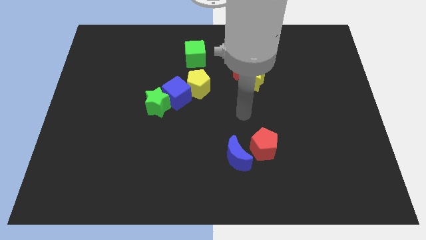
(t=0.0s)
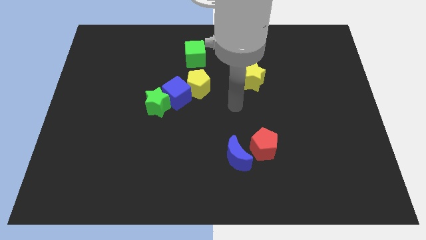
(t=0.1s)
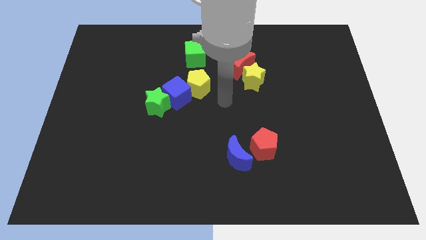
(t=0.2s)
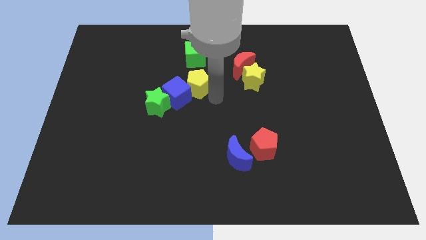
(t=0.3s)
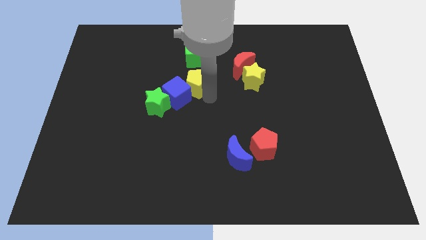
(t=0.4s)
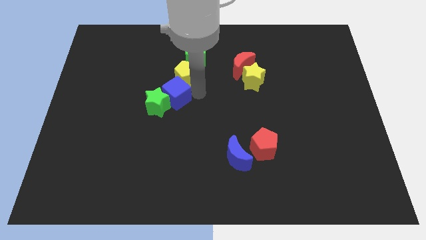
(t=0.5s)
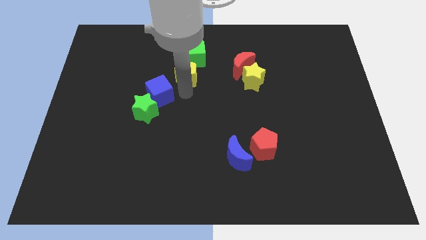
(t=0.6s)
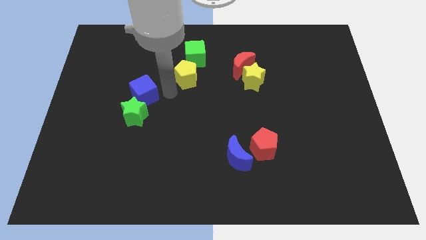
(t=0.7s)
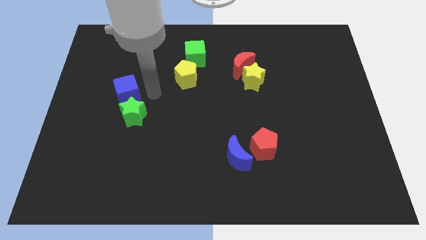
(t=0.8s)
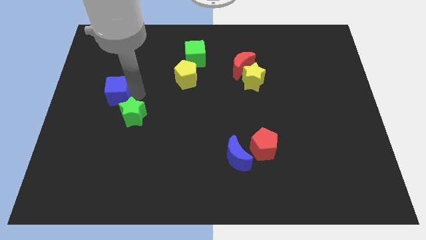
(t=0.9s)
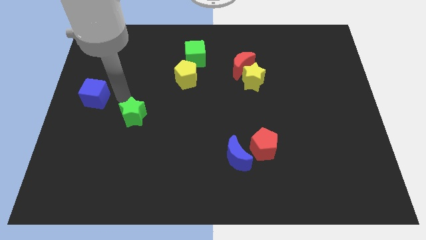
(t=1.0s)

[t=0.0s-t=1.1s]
move the green star away from the blue cube

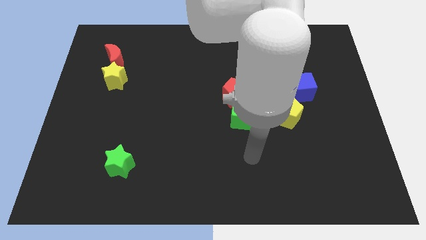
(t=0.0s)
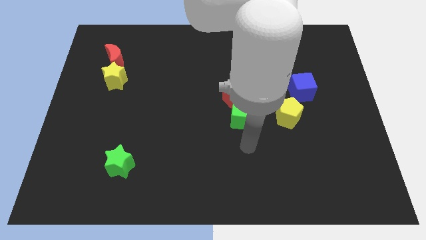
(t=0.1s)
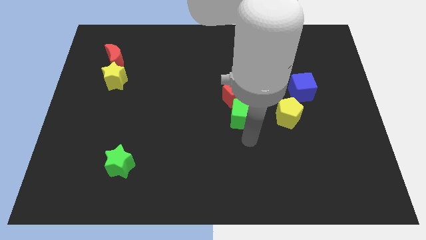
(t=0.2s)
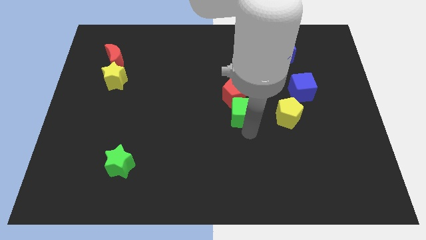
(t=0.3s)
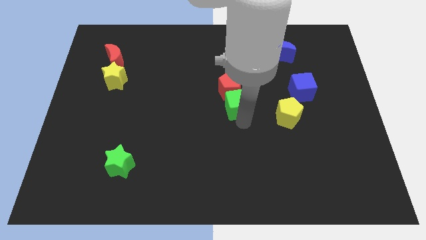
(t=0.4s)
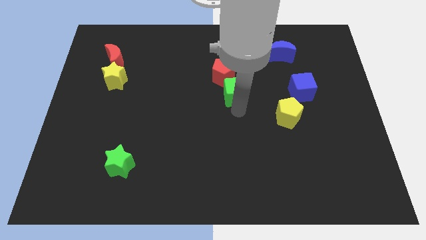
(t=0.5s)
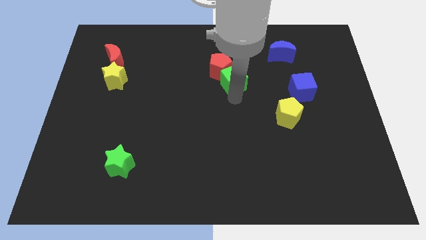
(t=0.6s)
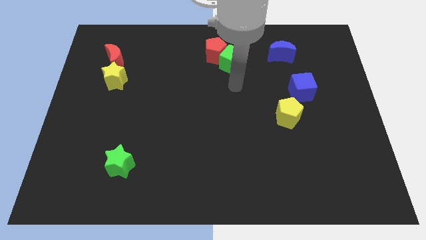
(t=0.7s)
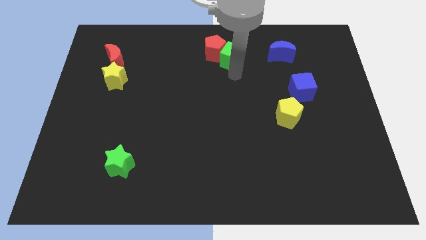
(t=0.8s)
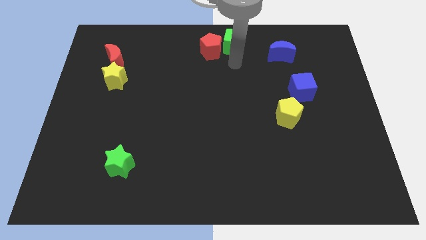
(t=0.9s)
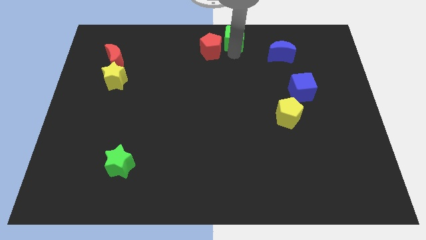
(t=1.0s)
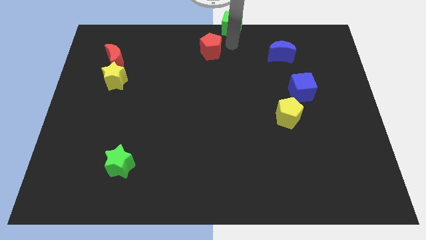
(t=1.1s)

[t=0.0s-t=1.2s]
pull the red pentagon apart from the green cube

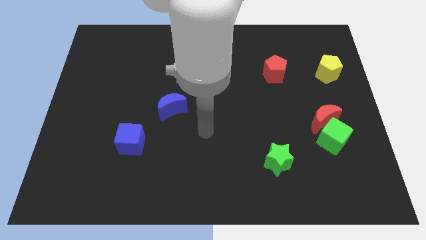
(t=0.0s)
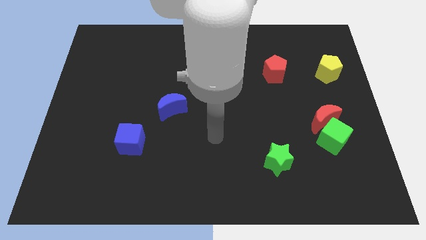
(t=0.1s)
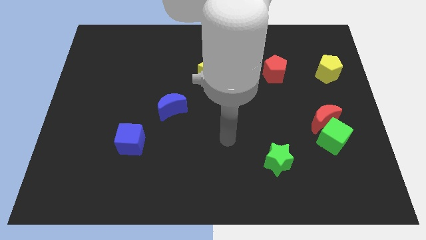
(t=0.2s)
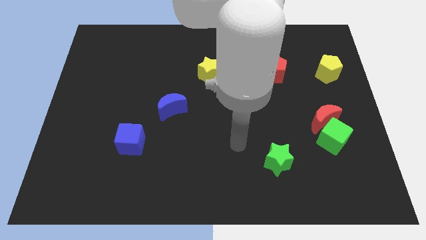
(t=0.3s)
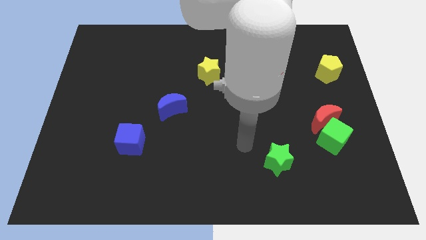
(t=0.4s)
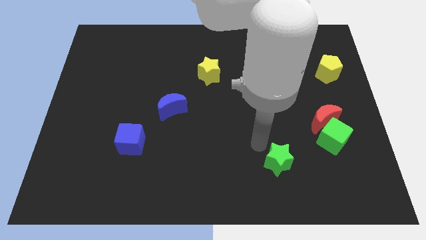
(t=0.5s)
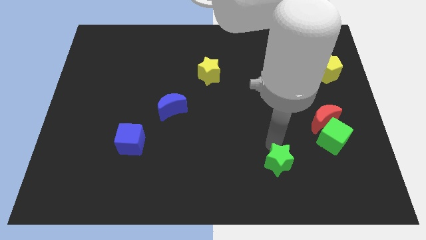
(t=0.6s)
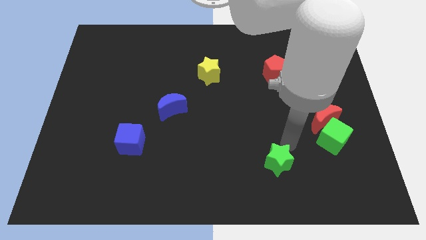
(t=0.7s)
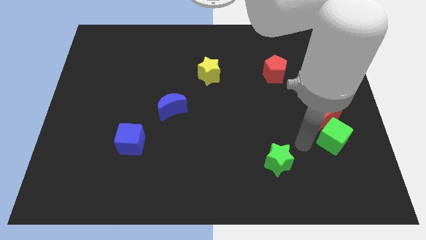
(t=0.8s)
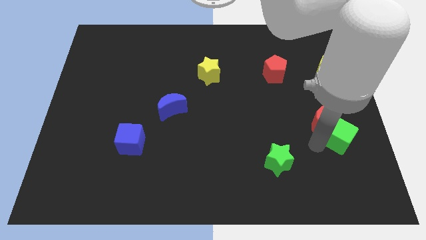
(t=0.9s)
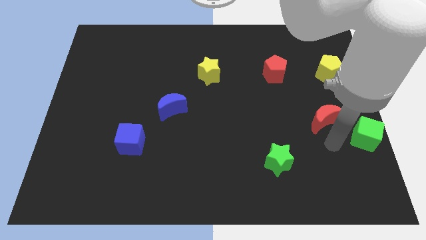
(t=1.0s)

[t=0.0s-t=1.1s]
separate the red moon from the green cube

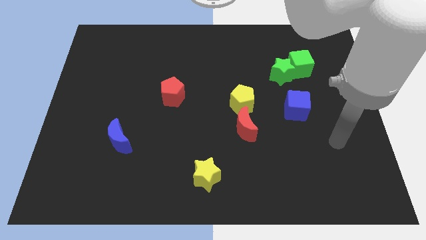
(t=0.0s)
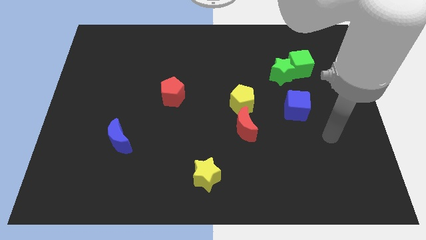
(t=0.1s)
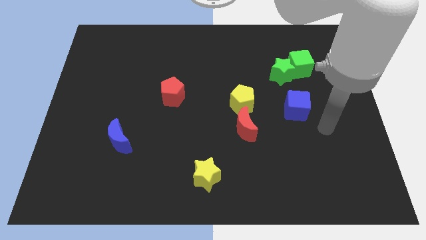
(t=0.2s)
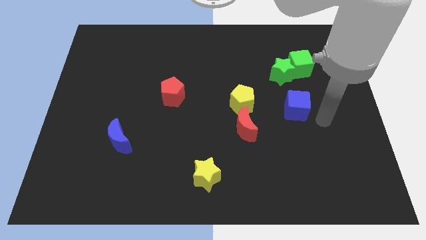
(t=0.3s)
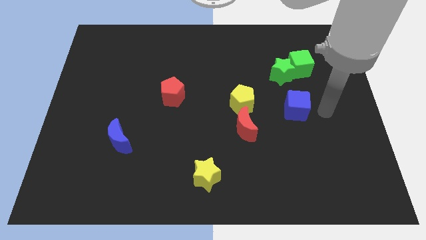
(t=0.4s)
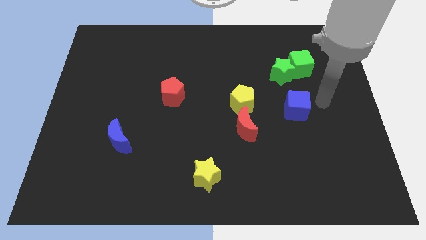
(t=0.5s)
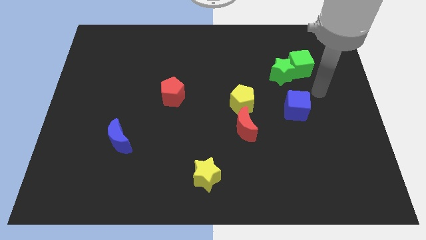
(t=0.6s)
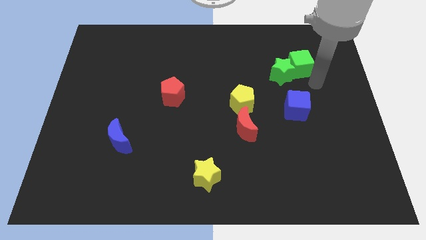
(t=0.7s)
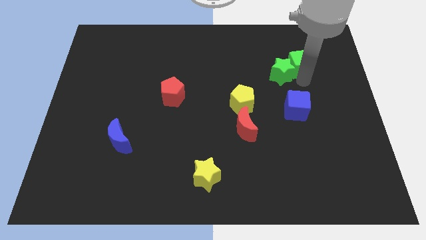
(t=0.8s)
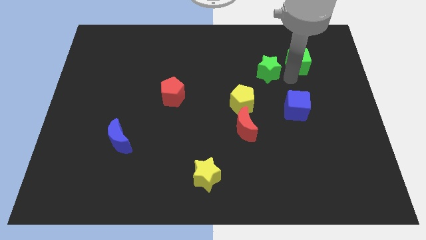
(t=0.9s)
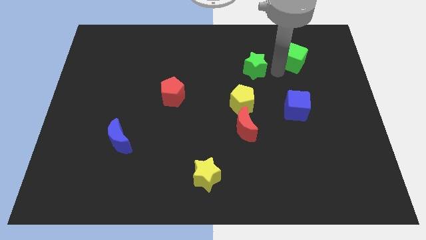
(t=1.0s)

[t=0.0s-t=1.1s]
move the green cube away from the green star

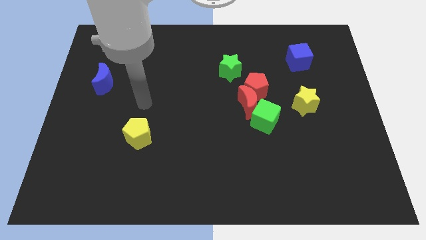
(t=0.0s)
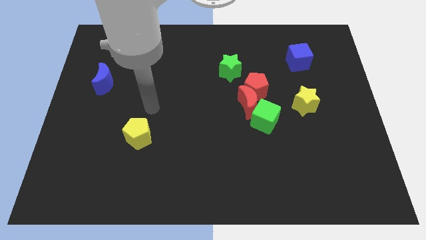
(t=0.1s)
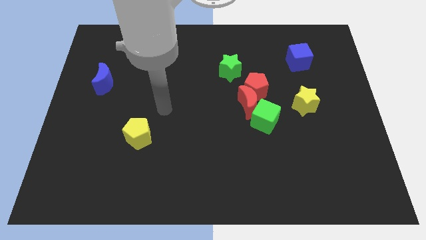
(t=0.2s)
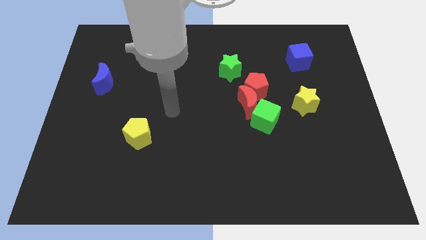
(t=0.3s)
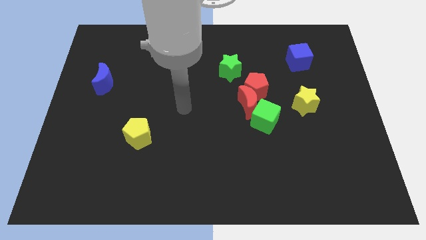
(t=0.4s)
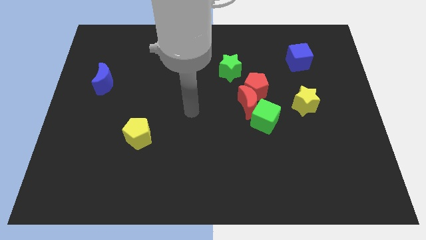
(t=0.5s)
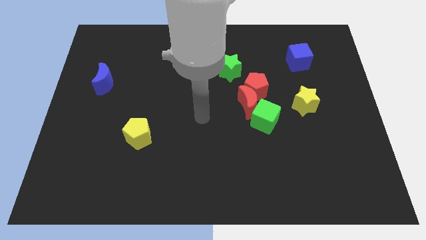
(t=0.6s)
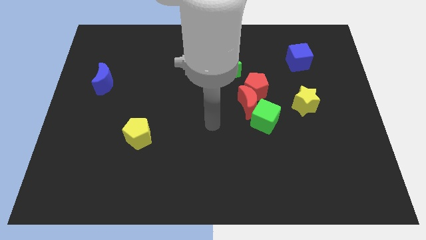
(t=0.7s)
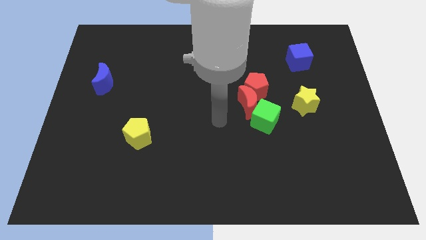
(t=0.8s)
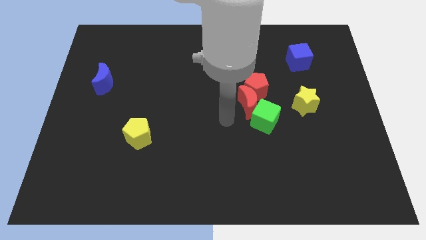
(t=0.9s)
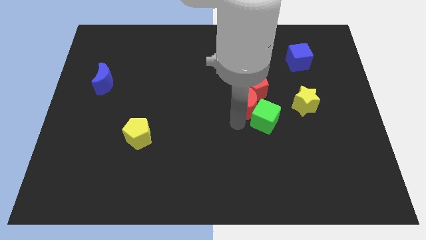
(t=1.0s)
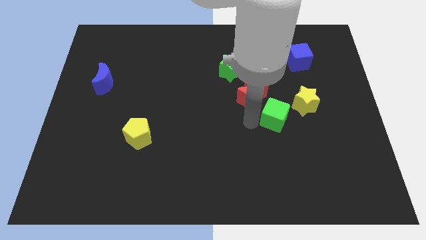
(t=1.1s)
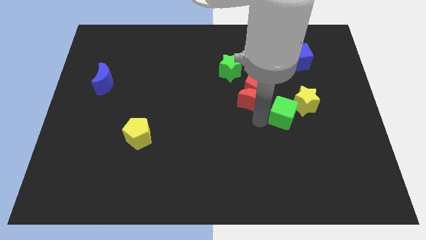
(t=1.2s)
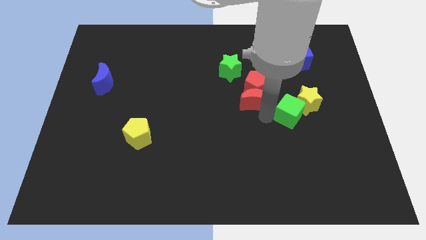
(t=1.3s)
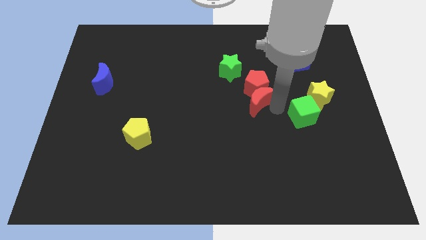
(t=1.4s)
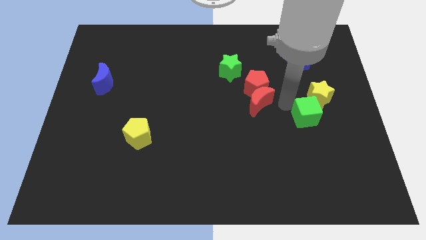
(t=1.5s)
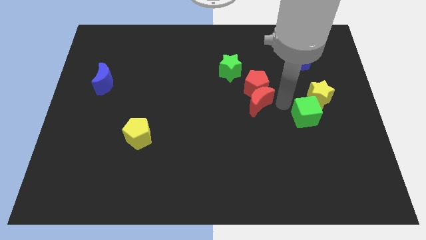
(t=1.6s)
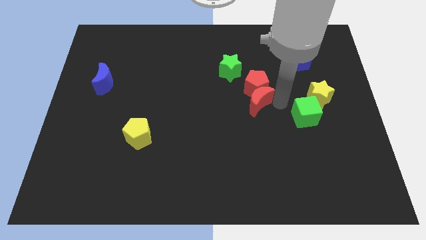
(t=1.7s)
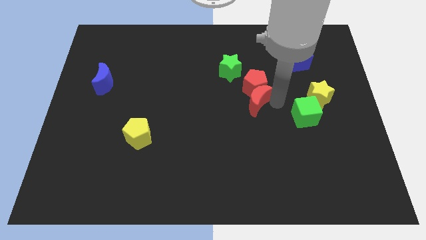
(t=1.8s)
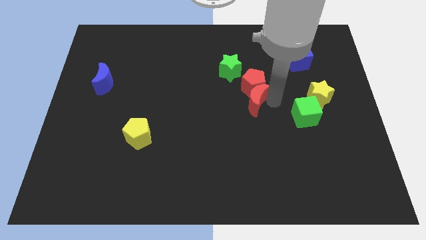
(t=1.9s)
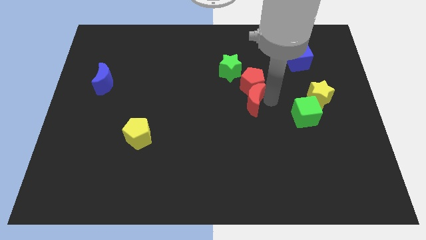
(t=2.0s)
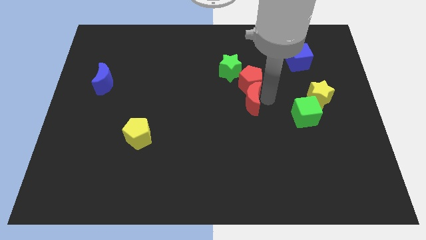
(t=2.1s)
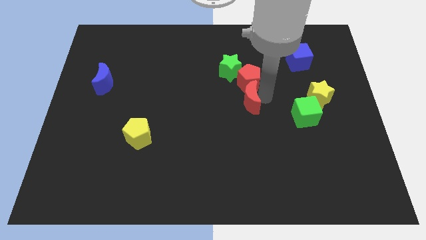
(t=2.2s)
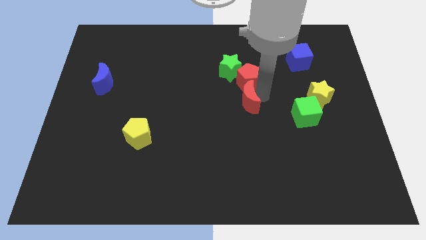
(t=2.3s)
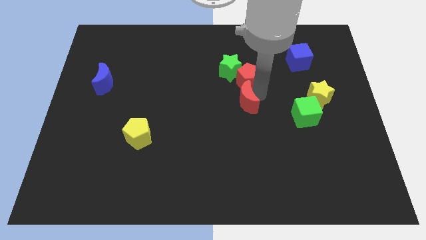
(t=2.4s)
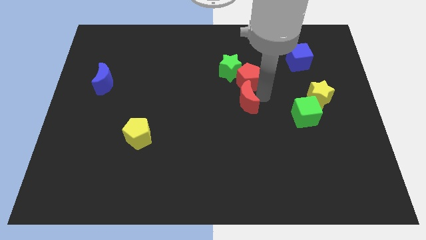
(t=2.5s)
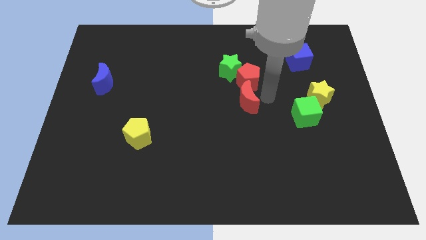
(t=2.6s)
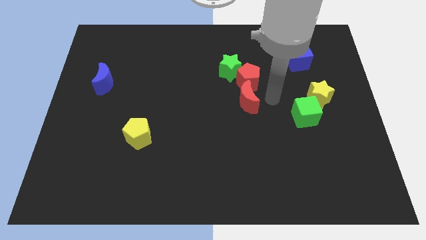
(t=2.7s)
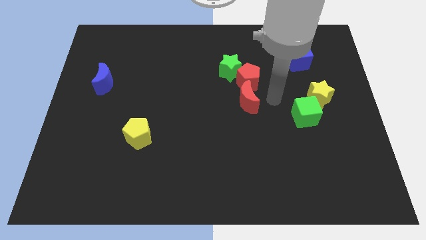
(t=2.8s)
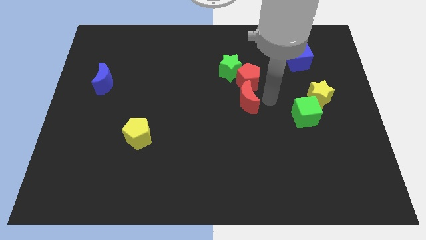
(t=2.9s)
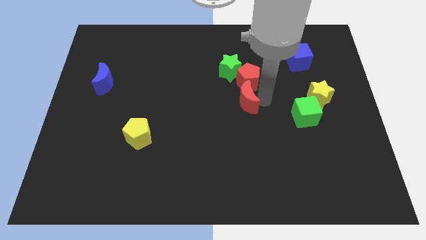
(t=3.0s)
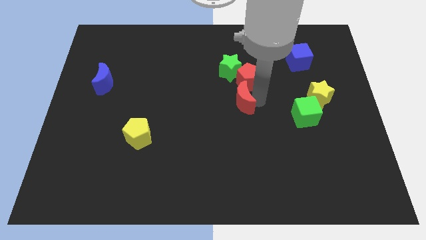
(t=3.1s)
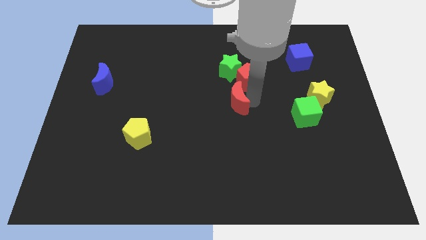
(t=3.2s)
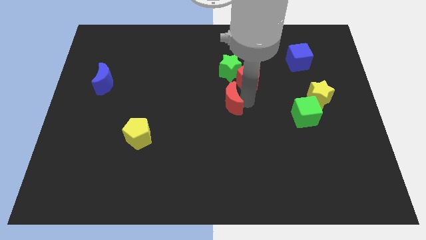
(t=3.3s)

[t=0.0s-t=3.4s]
move the red moon away from the red pentagon and green cube

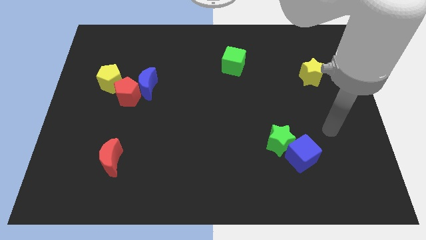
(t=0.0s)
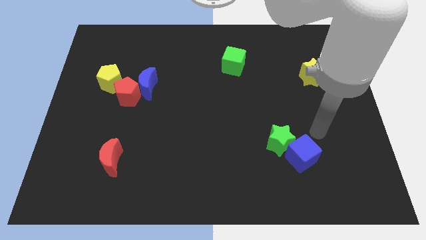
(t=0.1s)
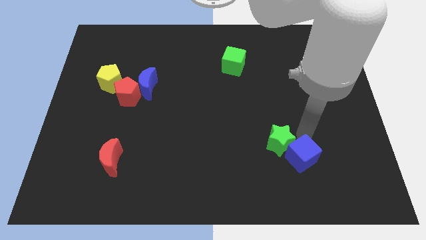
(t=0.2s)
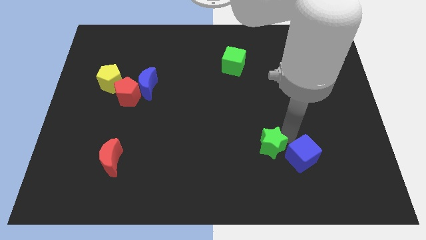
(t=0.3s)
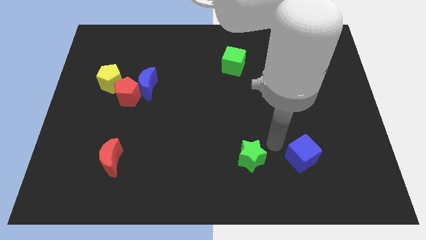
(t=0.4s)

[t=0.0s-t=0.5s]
pull the blue cube apart from the green star

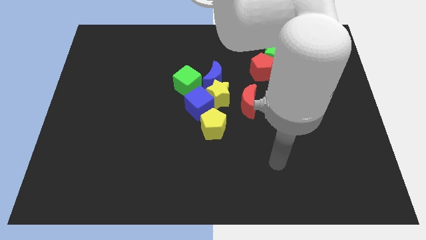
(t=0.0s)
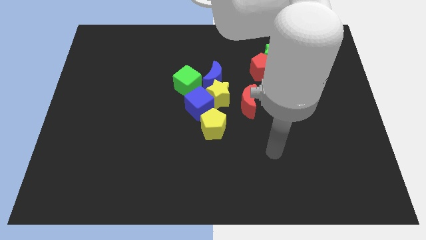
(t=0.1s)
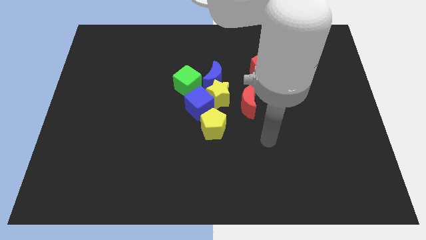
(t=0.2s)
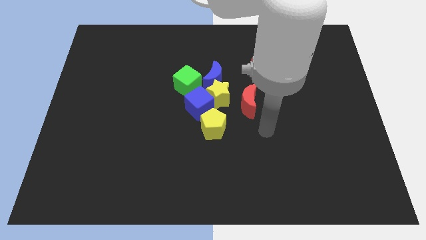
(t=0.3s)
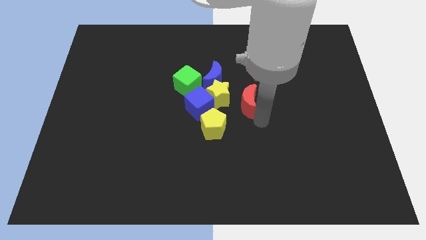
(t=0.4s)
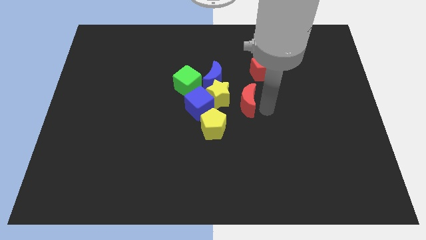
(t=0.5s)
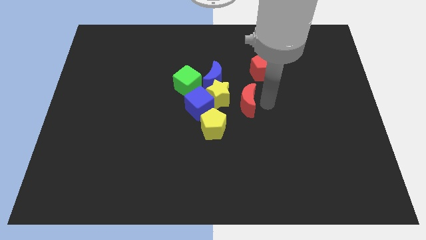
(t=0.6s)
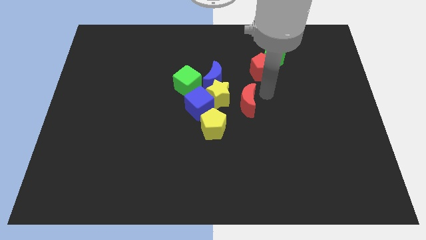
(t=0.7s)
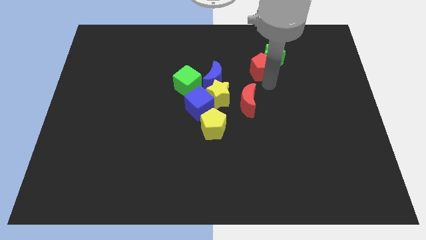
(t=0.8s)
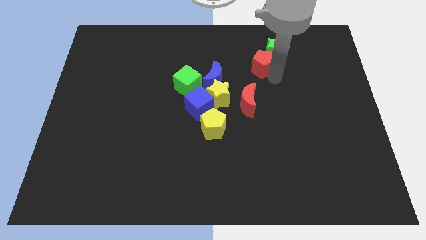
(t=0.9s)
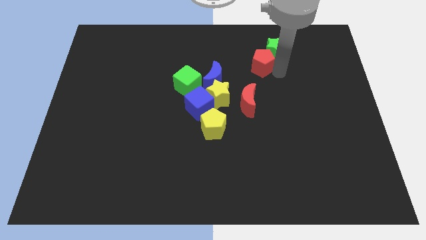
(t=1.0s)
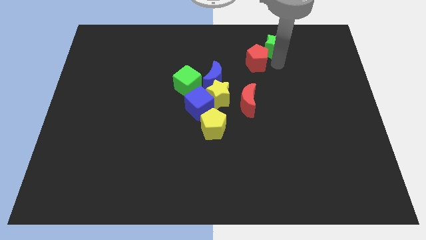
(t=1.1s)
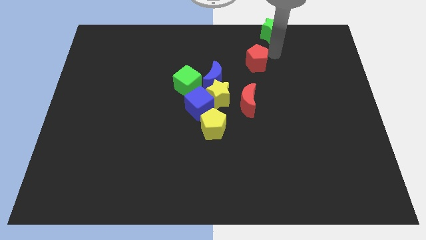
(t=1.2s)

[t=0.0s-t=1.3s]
move the red pentagon away from the green star
